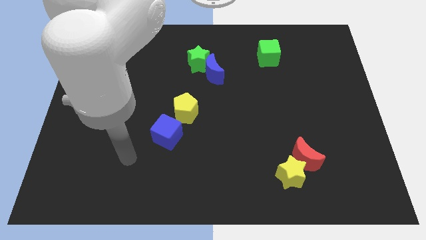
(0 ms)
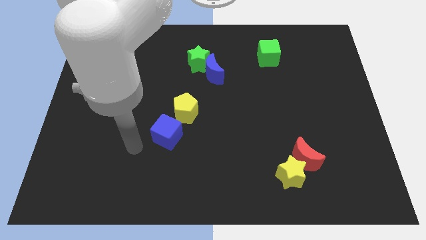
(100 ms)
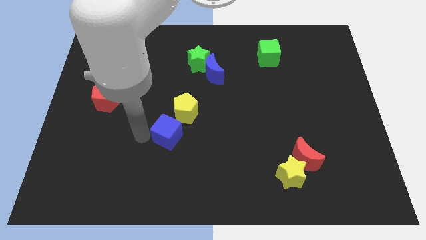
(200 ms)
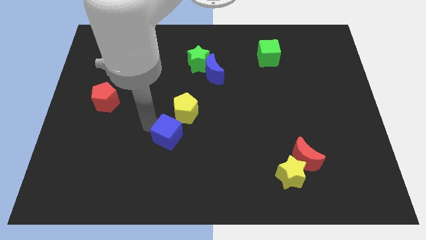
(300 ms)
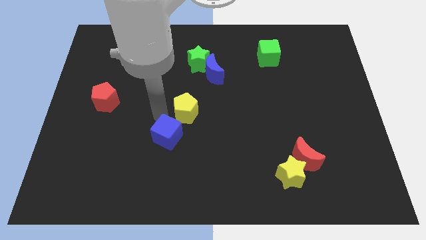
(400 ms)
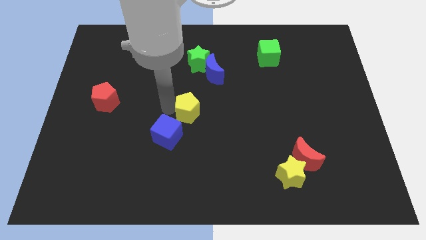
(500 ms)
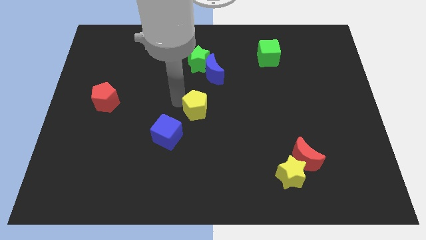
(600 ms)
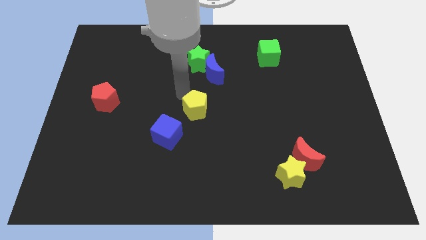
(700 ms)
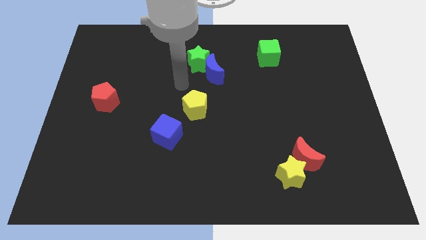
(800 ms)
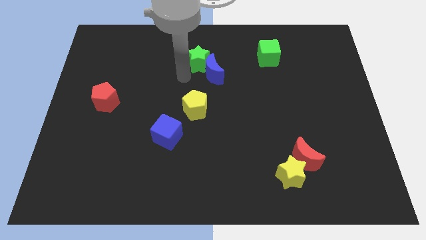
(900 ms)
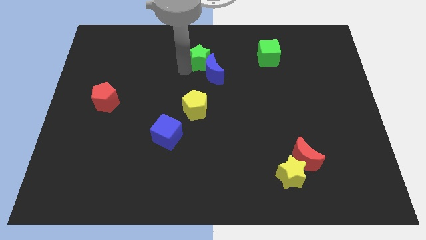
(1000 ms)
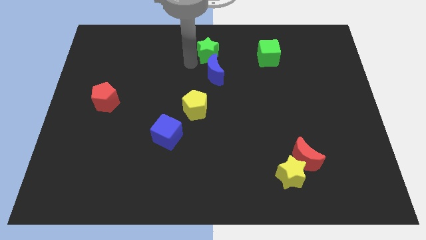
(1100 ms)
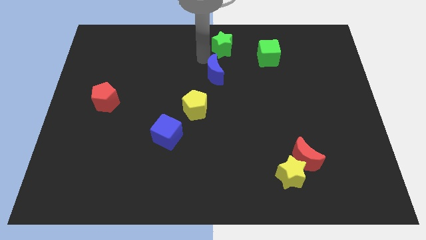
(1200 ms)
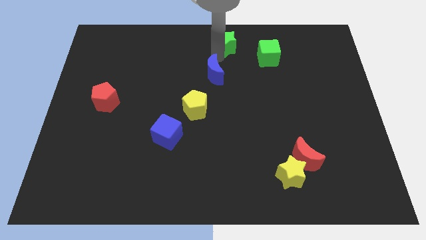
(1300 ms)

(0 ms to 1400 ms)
separate the blue moon from the green star

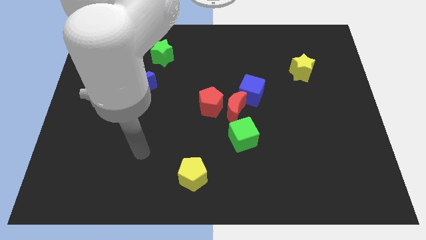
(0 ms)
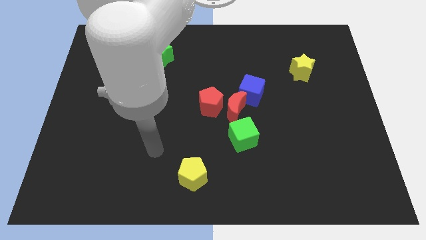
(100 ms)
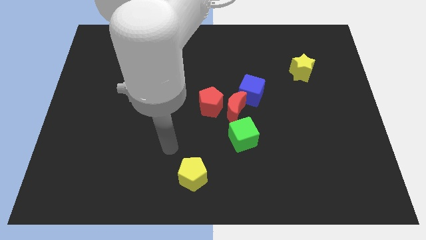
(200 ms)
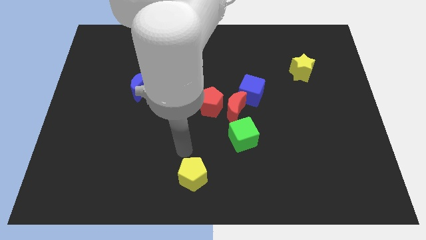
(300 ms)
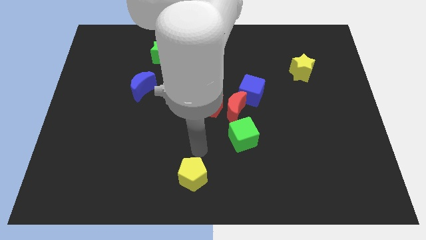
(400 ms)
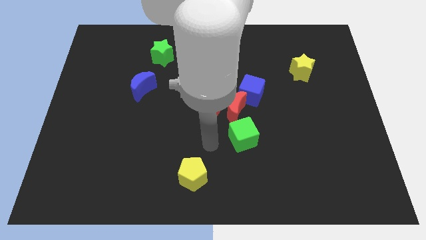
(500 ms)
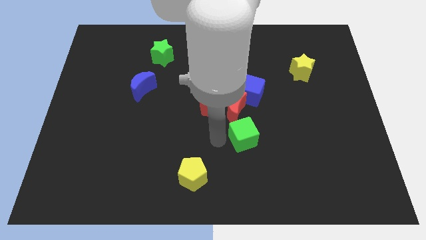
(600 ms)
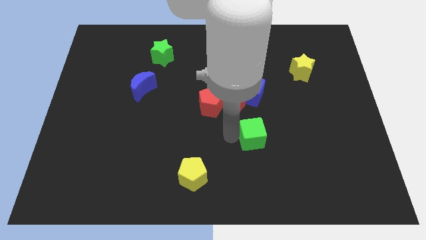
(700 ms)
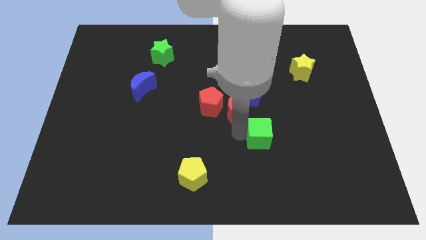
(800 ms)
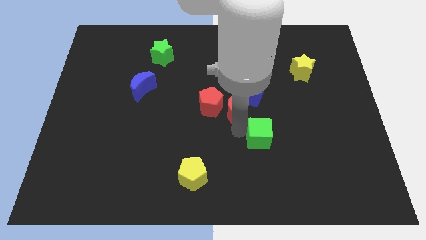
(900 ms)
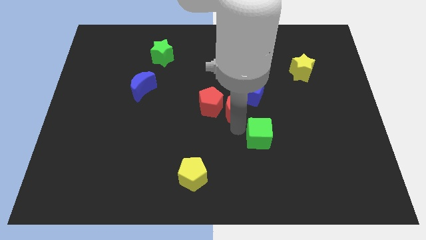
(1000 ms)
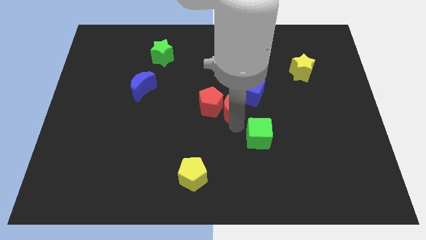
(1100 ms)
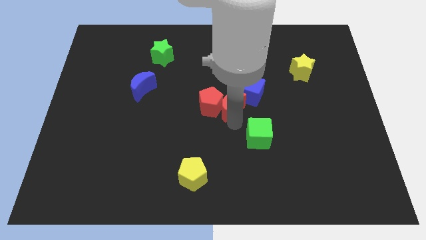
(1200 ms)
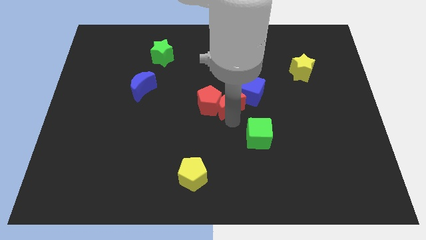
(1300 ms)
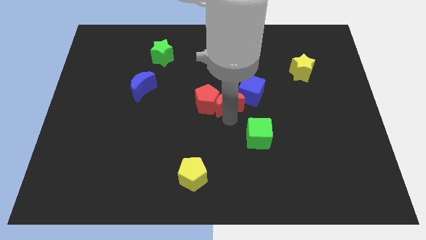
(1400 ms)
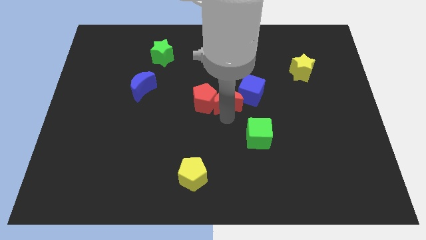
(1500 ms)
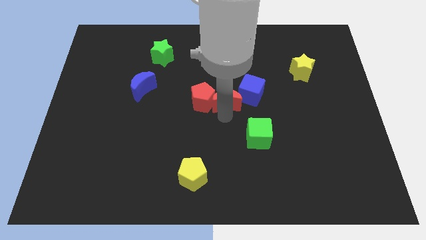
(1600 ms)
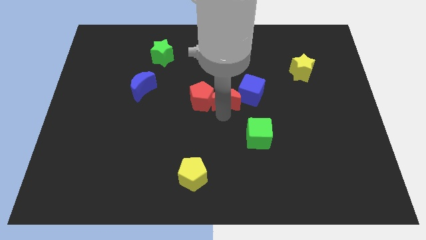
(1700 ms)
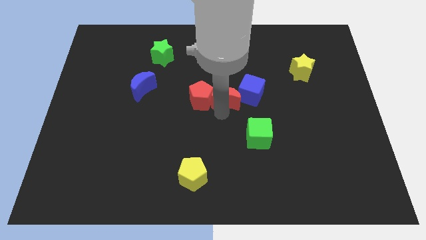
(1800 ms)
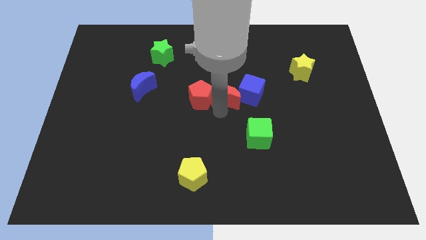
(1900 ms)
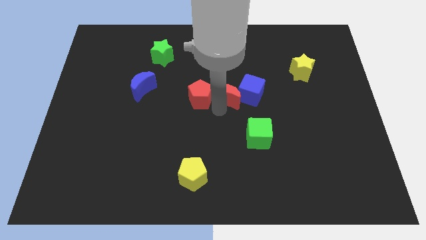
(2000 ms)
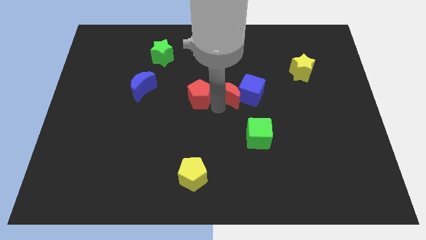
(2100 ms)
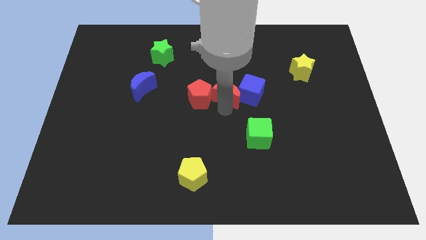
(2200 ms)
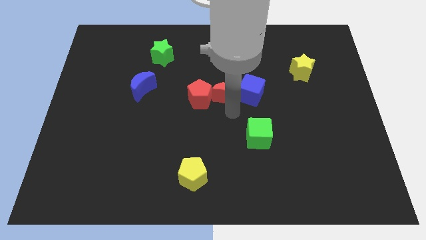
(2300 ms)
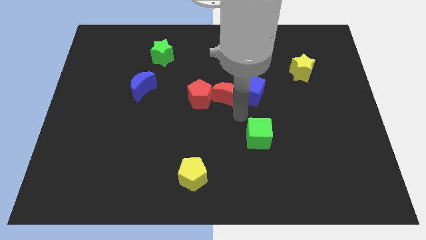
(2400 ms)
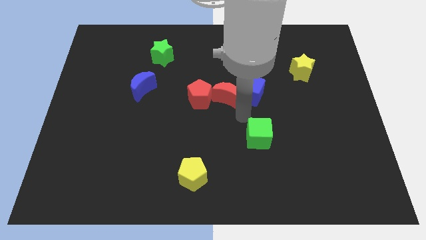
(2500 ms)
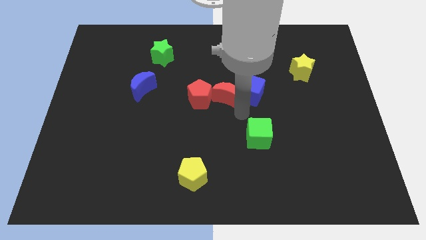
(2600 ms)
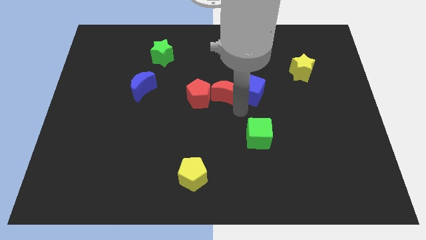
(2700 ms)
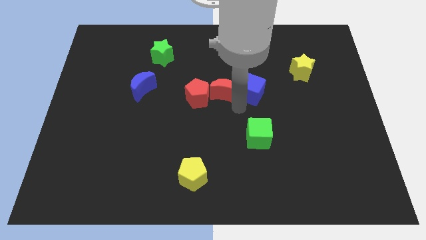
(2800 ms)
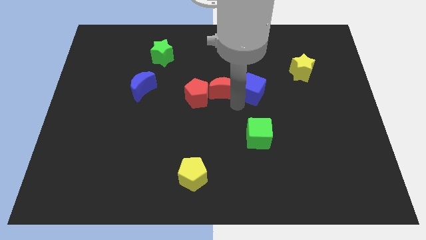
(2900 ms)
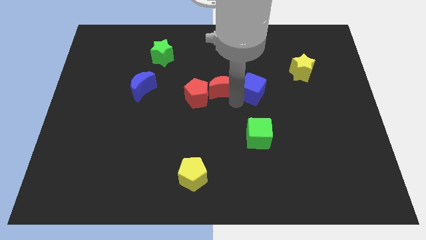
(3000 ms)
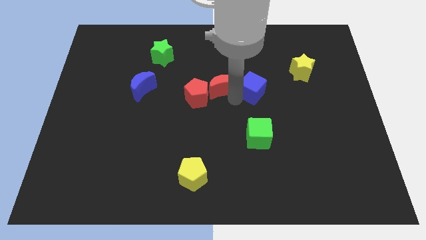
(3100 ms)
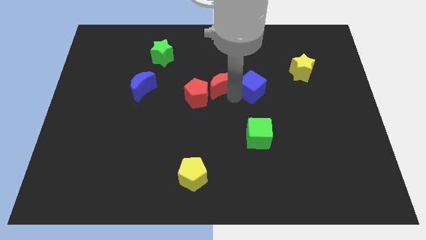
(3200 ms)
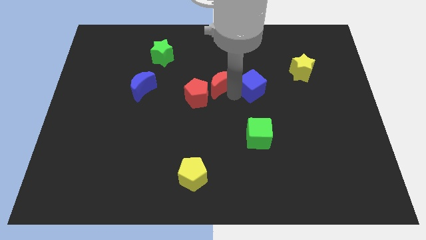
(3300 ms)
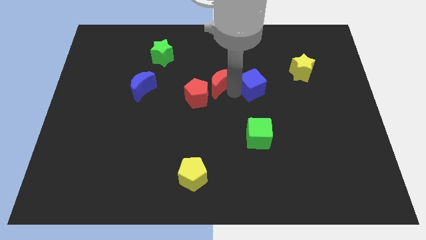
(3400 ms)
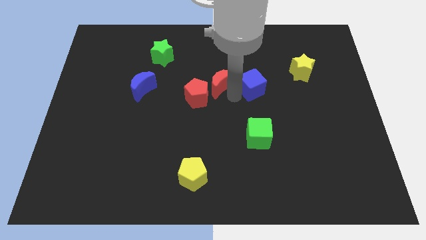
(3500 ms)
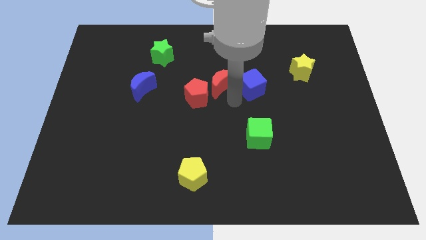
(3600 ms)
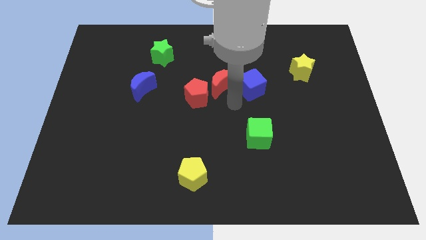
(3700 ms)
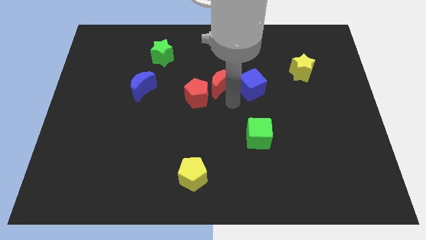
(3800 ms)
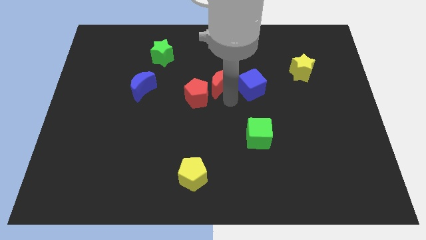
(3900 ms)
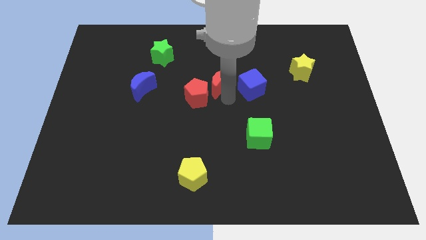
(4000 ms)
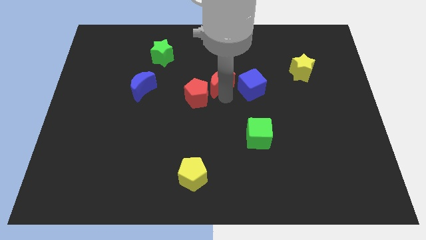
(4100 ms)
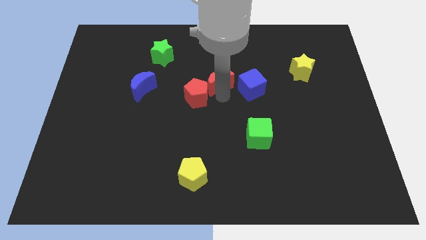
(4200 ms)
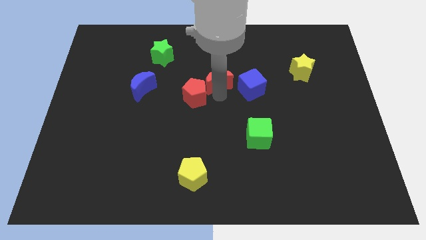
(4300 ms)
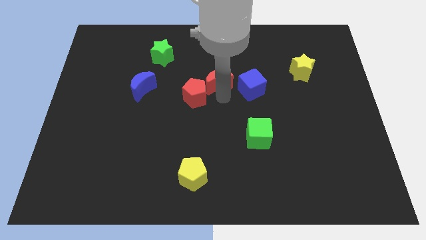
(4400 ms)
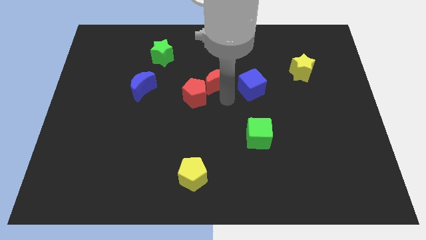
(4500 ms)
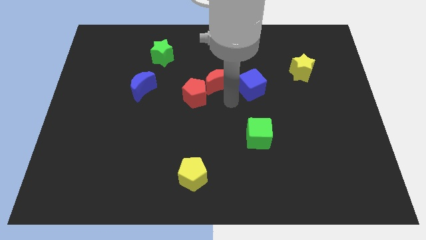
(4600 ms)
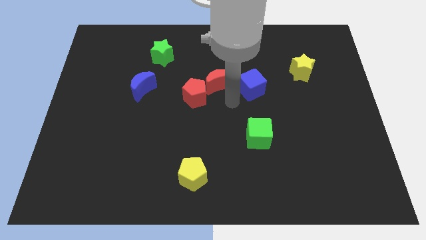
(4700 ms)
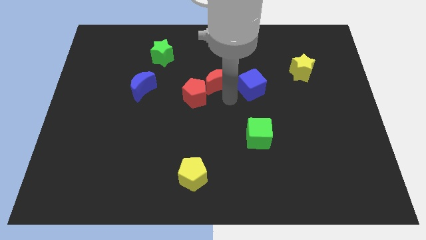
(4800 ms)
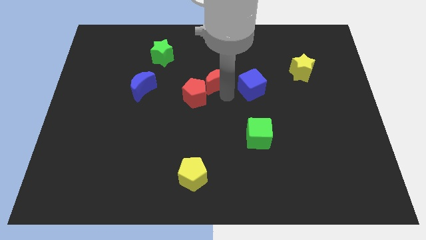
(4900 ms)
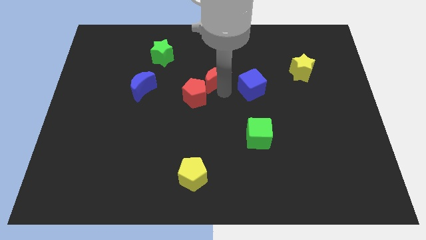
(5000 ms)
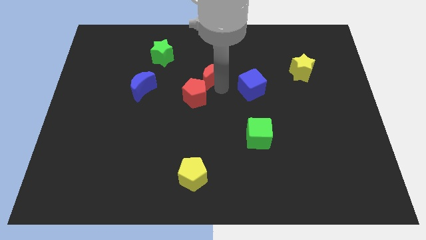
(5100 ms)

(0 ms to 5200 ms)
separate the red moon from the clump

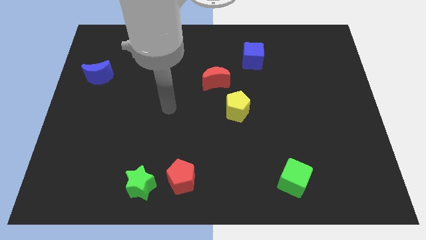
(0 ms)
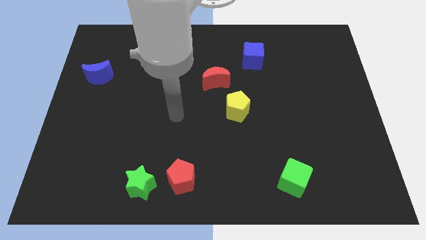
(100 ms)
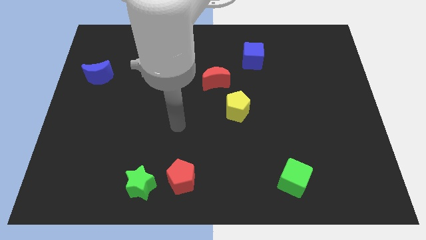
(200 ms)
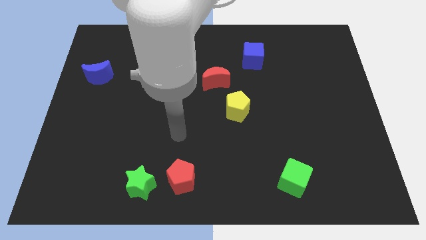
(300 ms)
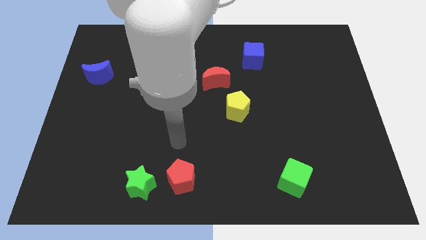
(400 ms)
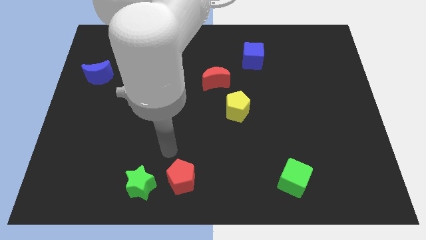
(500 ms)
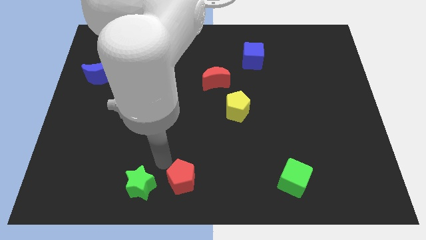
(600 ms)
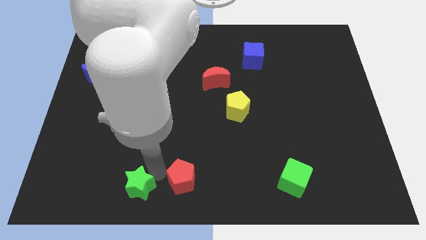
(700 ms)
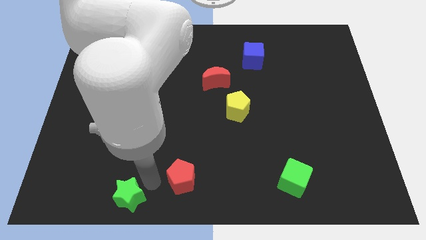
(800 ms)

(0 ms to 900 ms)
separate the red pentagon from the green star

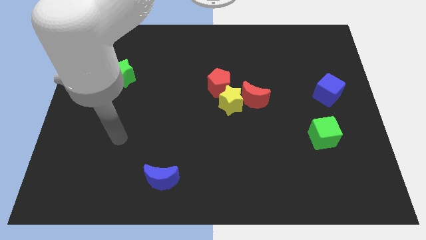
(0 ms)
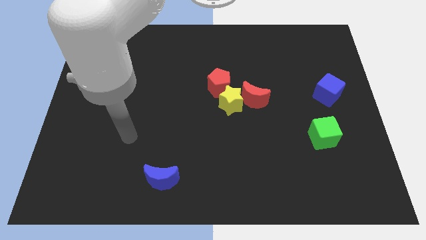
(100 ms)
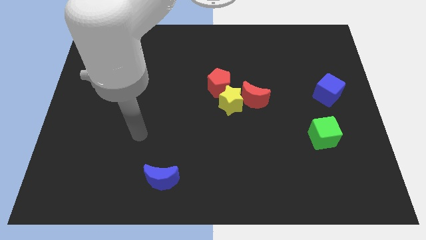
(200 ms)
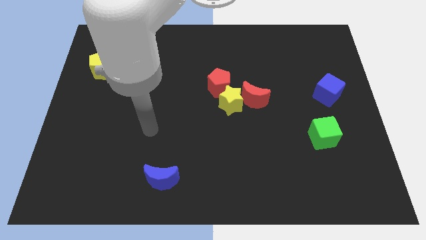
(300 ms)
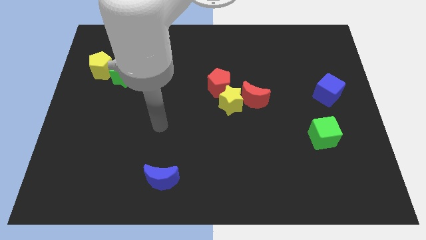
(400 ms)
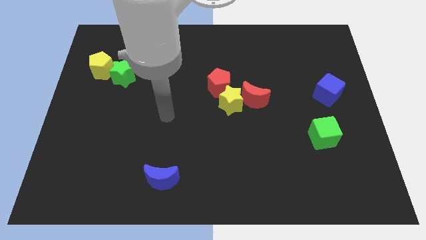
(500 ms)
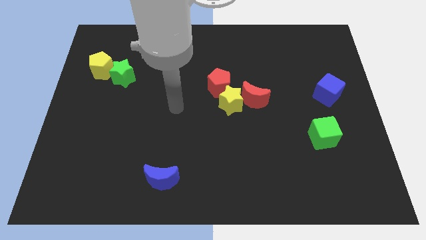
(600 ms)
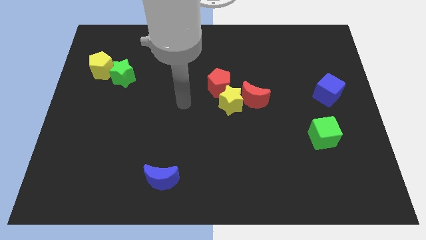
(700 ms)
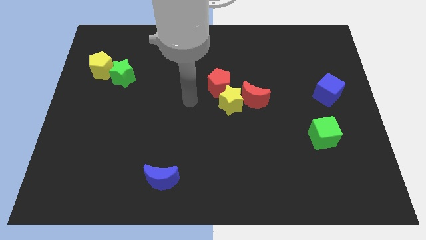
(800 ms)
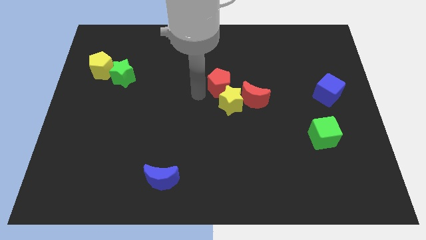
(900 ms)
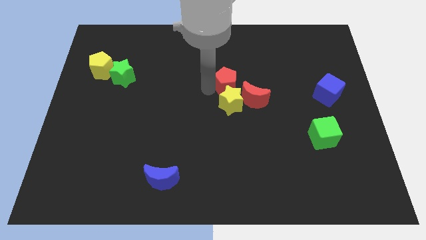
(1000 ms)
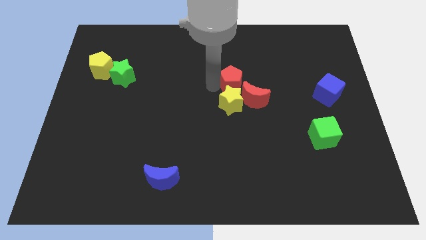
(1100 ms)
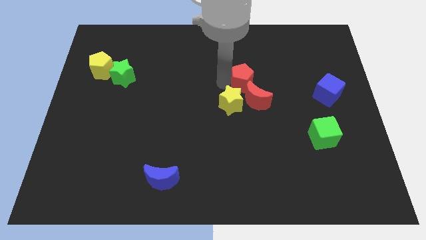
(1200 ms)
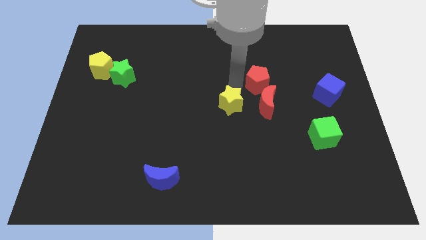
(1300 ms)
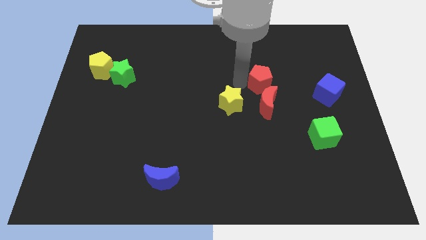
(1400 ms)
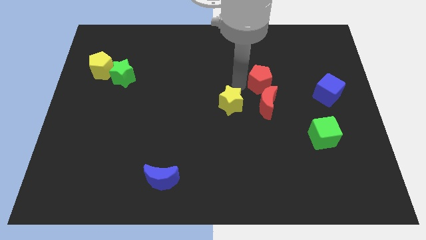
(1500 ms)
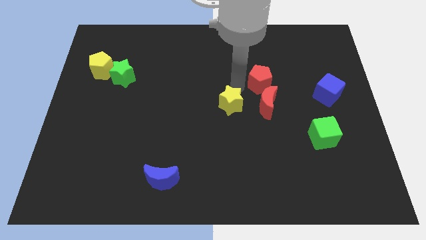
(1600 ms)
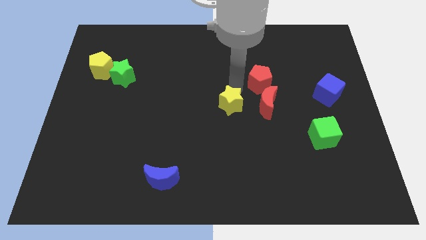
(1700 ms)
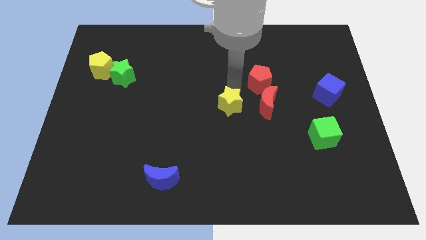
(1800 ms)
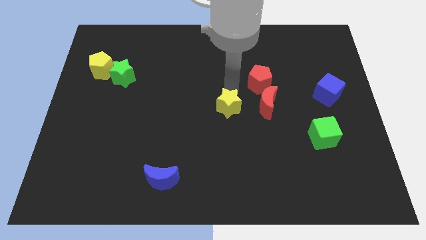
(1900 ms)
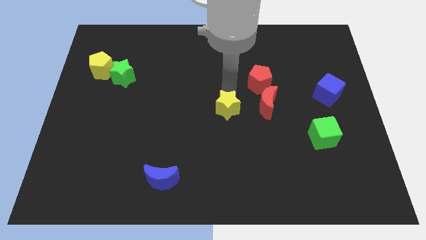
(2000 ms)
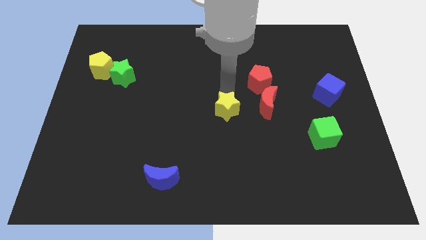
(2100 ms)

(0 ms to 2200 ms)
move the yellow star away from the red moon and red pentagon
